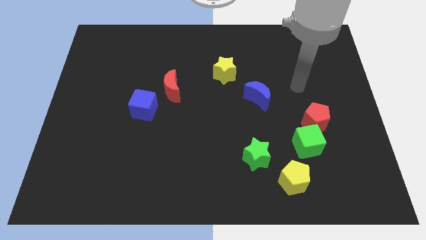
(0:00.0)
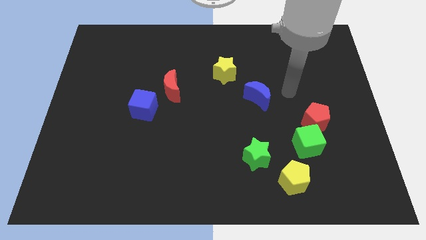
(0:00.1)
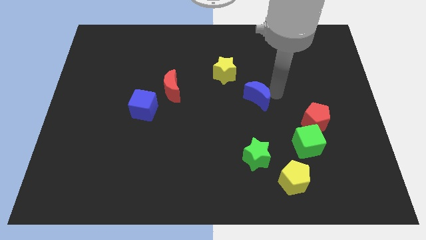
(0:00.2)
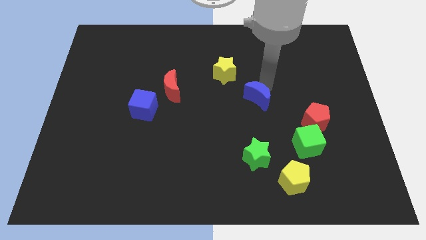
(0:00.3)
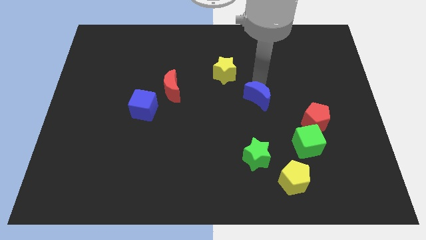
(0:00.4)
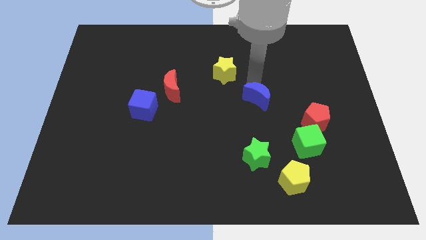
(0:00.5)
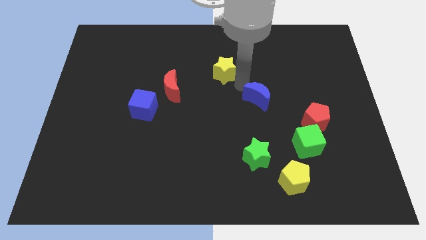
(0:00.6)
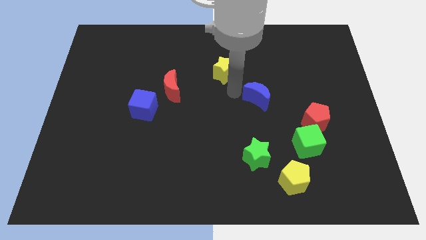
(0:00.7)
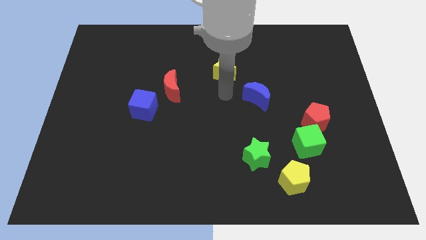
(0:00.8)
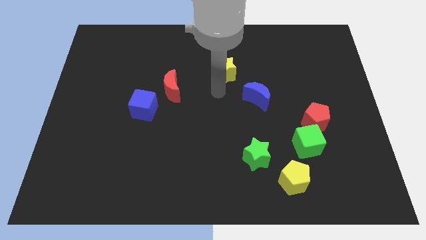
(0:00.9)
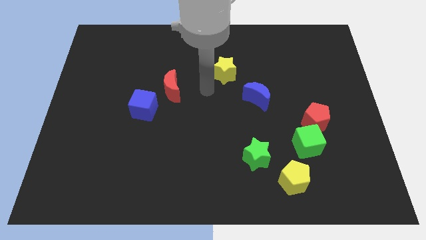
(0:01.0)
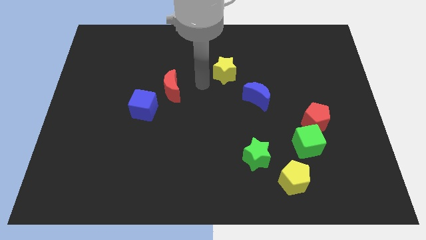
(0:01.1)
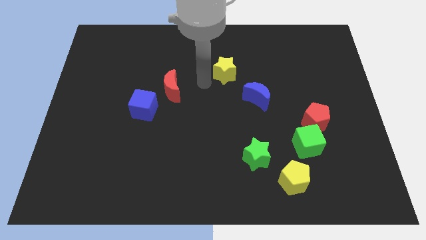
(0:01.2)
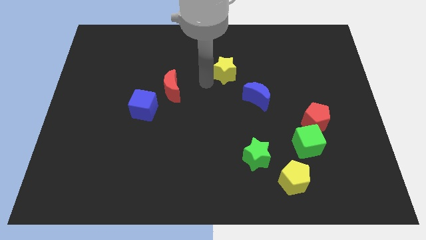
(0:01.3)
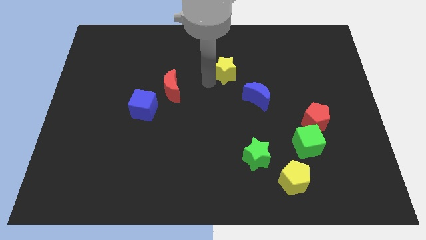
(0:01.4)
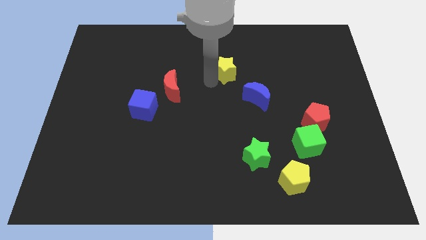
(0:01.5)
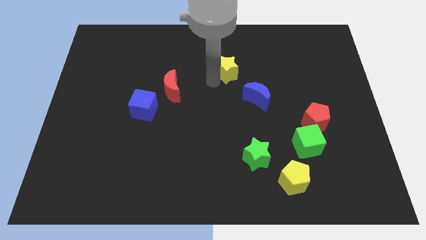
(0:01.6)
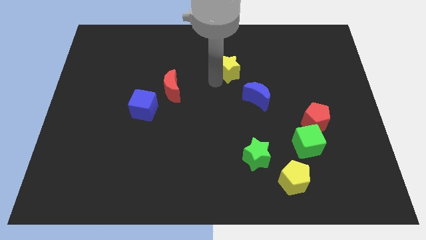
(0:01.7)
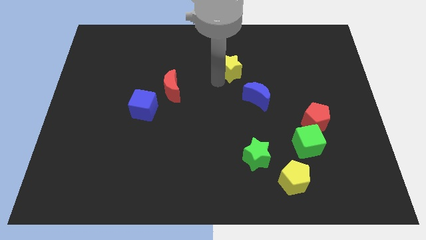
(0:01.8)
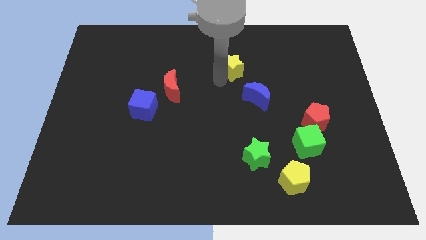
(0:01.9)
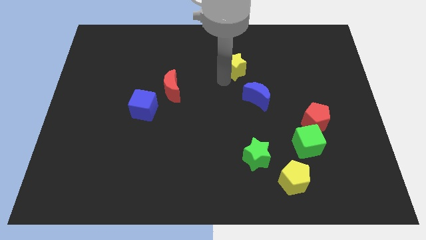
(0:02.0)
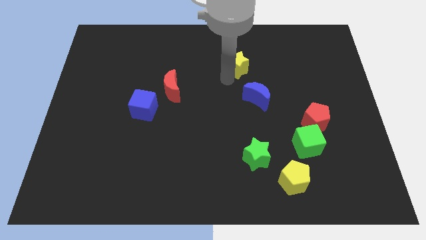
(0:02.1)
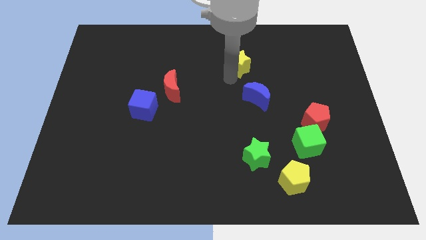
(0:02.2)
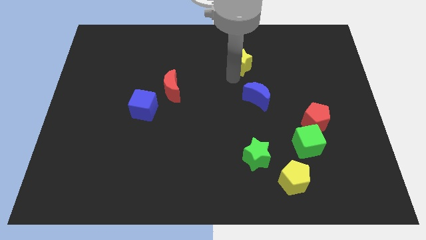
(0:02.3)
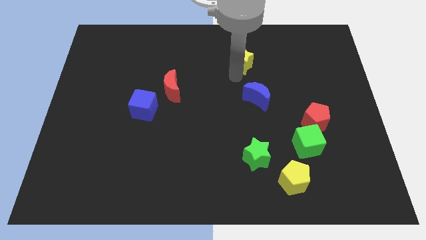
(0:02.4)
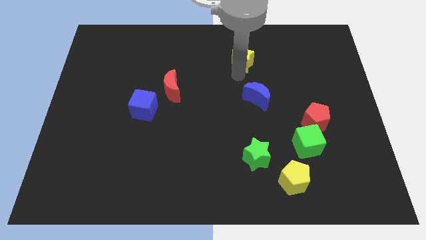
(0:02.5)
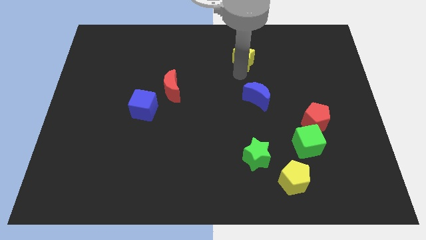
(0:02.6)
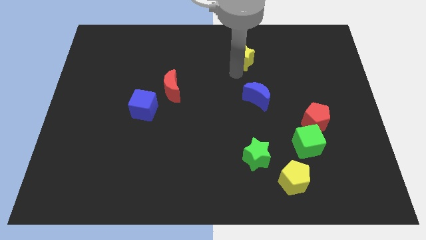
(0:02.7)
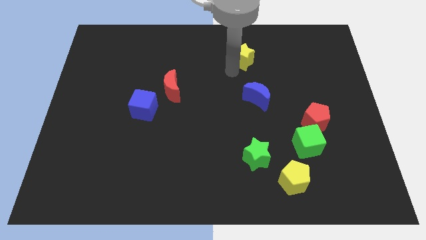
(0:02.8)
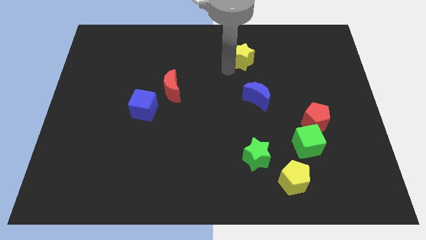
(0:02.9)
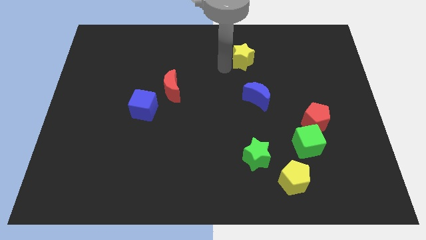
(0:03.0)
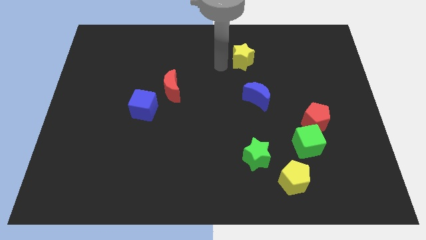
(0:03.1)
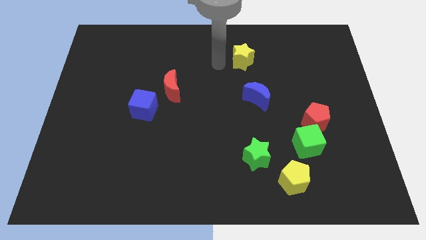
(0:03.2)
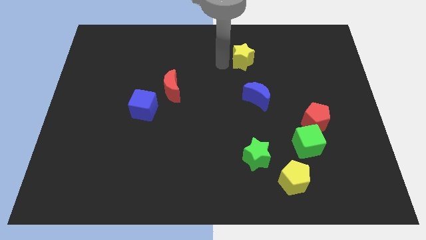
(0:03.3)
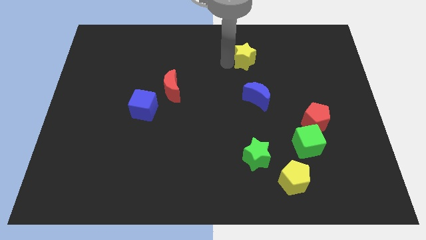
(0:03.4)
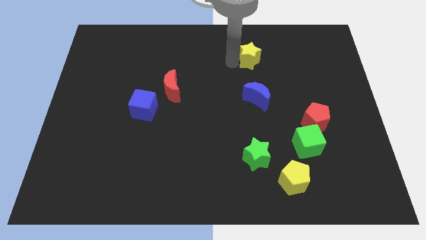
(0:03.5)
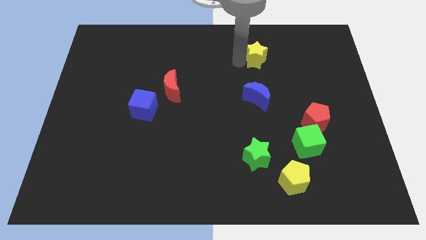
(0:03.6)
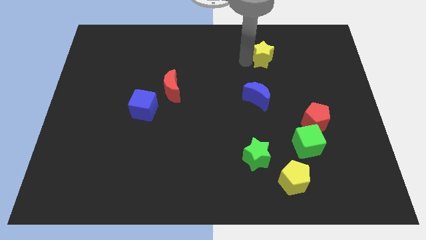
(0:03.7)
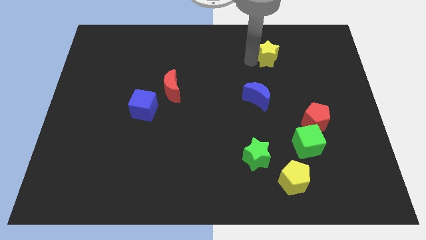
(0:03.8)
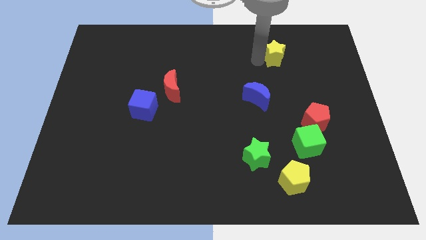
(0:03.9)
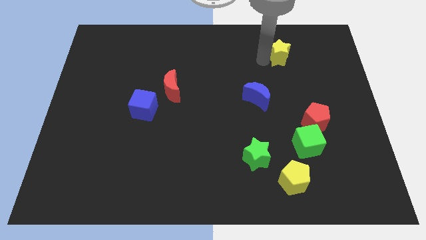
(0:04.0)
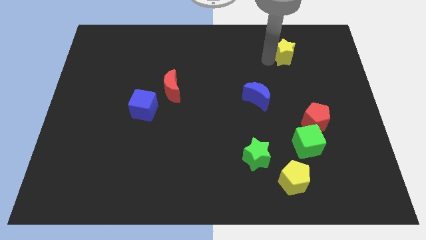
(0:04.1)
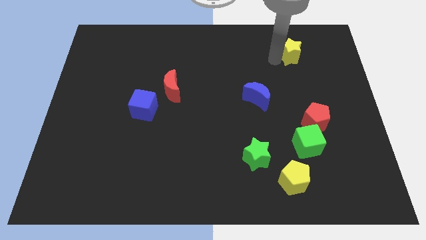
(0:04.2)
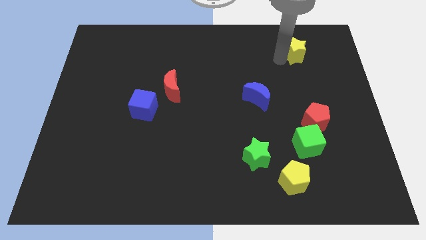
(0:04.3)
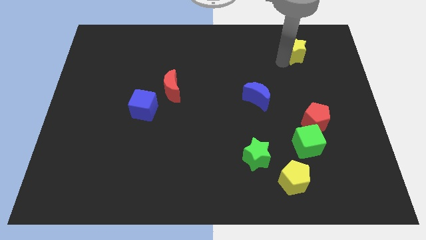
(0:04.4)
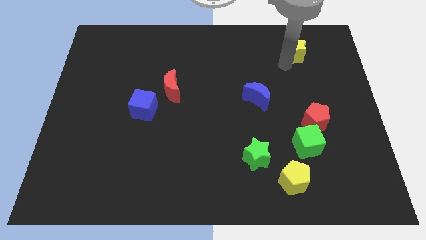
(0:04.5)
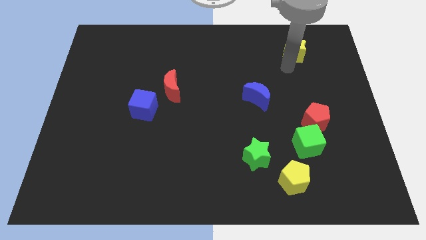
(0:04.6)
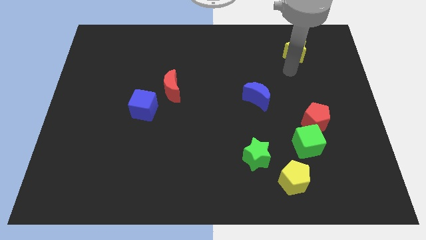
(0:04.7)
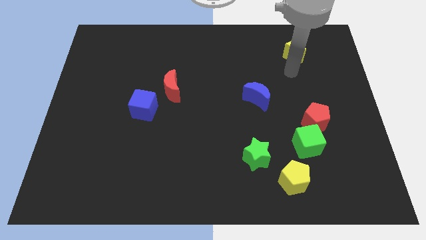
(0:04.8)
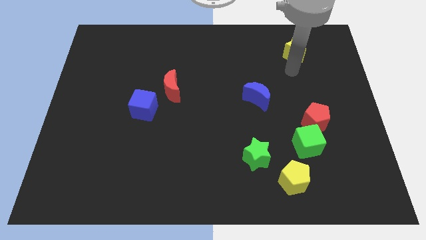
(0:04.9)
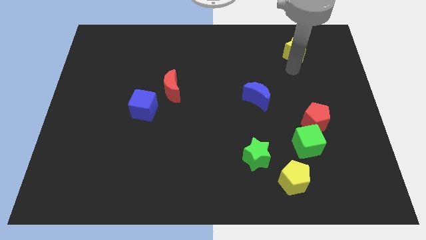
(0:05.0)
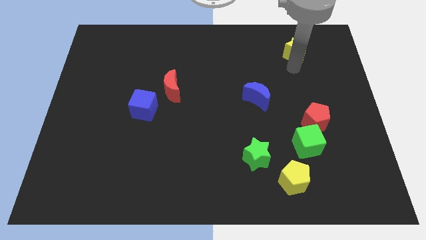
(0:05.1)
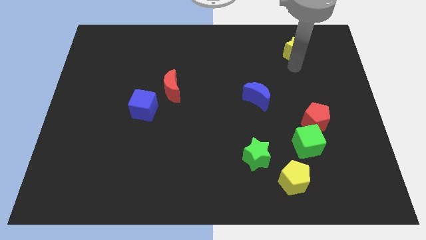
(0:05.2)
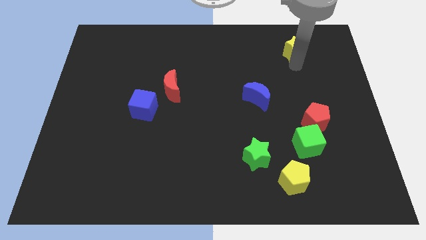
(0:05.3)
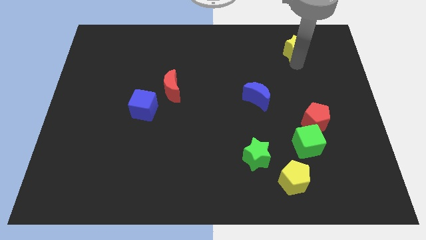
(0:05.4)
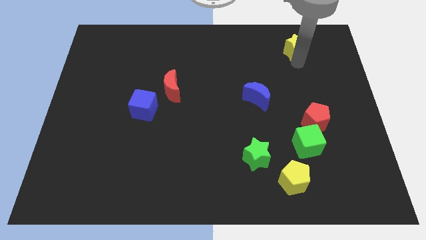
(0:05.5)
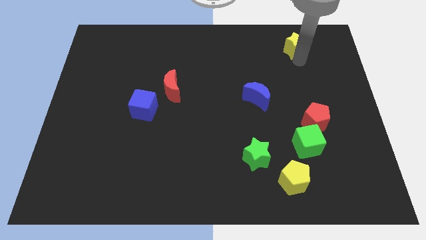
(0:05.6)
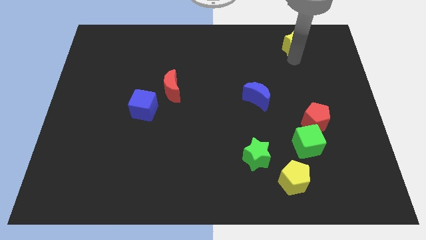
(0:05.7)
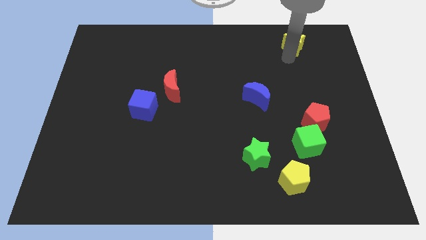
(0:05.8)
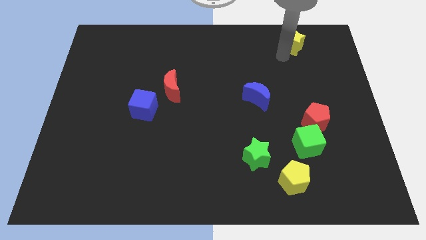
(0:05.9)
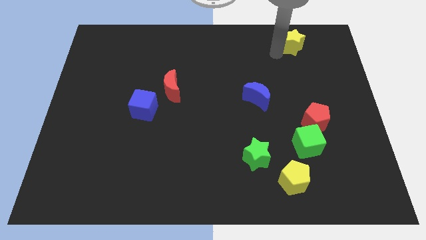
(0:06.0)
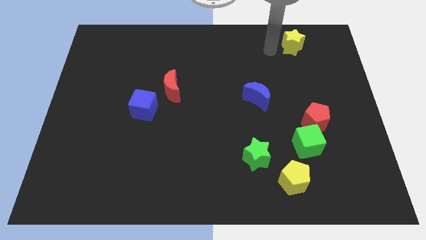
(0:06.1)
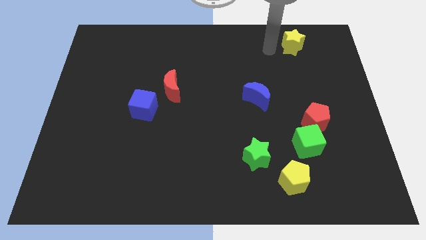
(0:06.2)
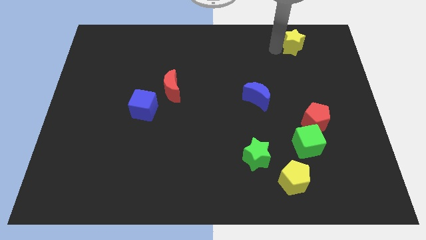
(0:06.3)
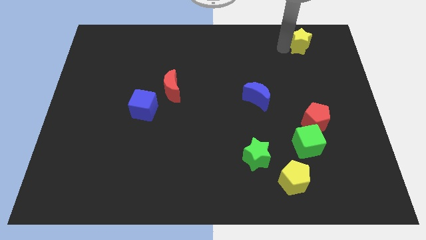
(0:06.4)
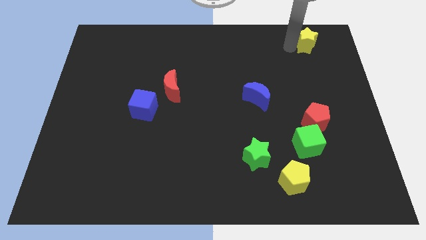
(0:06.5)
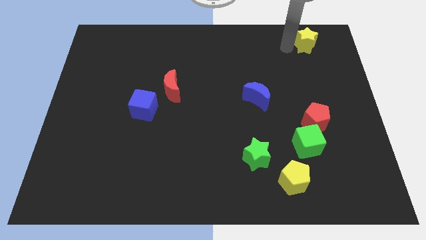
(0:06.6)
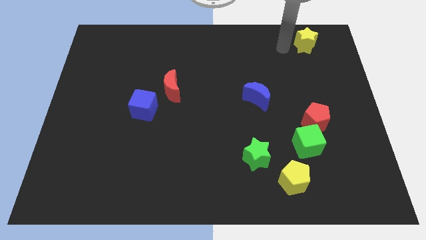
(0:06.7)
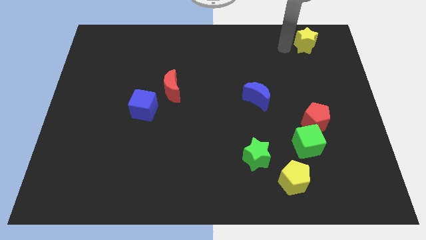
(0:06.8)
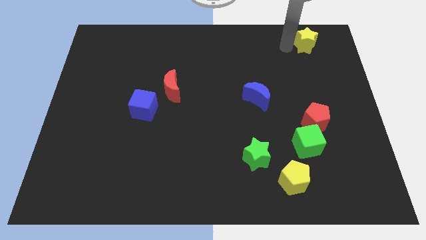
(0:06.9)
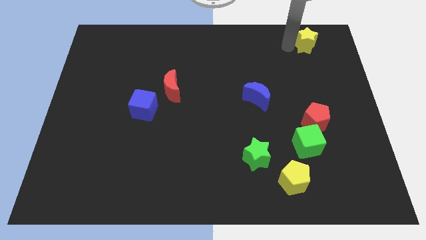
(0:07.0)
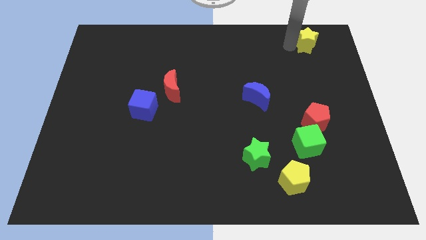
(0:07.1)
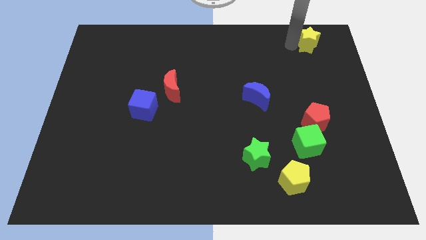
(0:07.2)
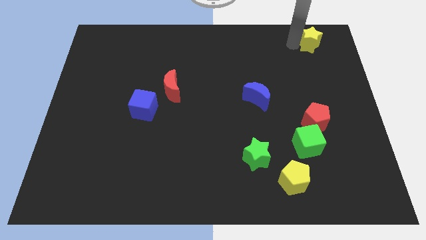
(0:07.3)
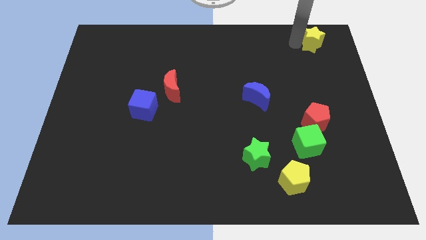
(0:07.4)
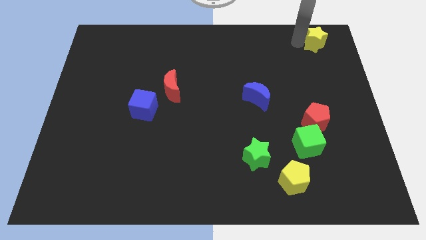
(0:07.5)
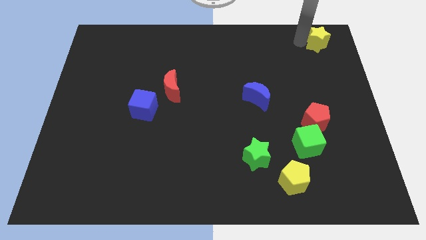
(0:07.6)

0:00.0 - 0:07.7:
slide the yellow star to the top right corner
